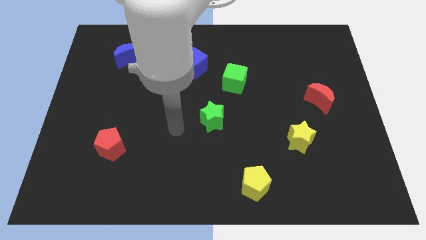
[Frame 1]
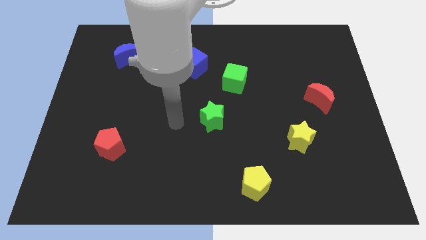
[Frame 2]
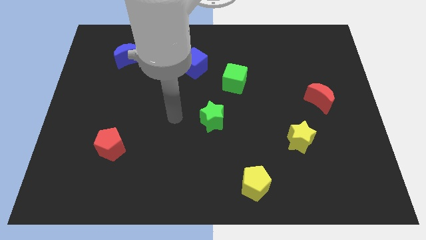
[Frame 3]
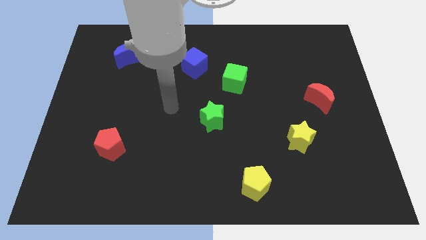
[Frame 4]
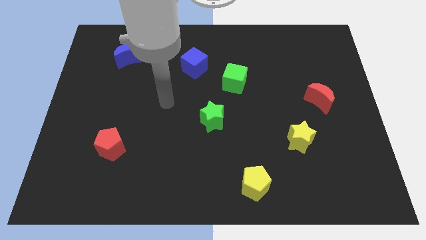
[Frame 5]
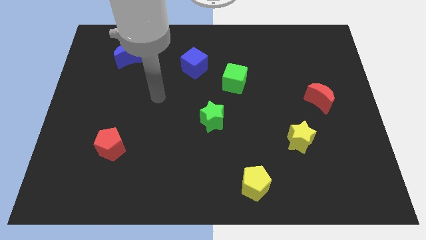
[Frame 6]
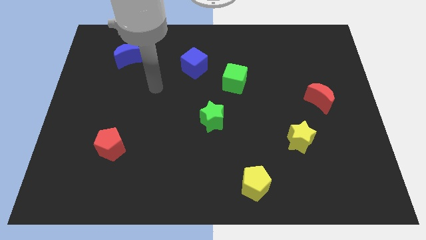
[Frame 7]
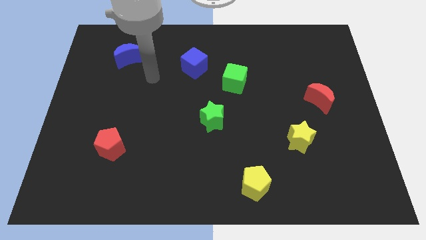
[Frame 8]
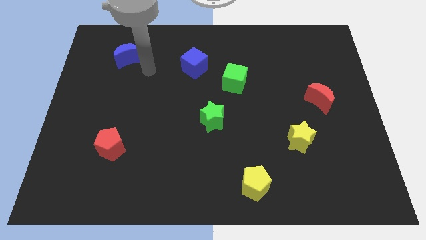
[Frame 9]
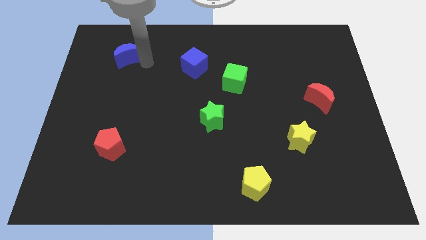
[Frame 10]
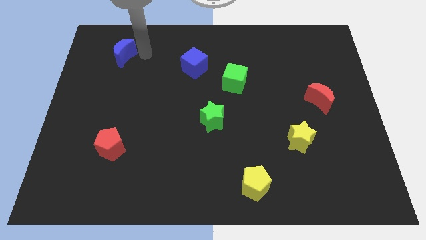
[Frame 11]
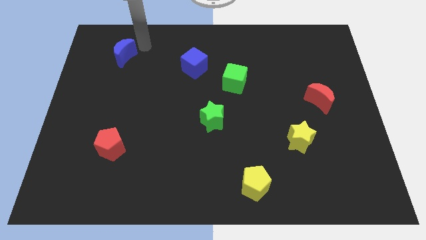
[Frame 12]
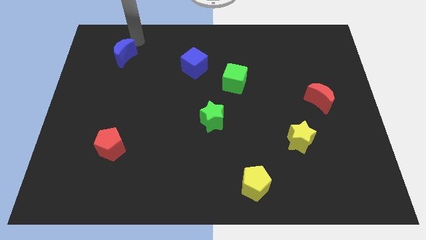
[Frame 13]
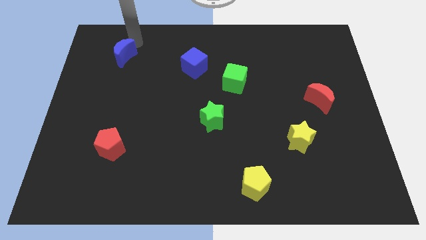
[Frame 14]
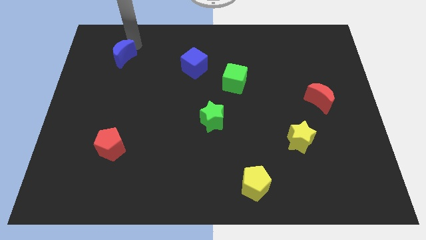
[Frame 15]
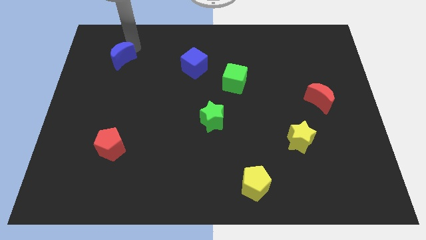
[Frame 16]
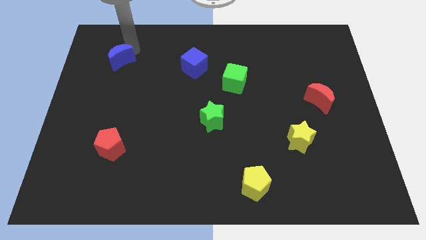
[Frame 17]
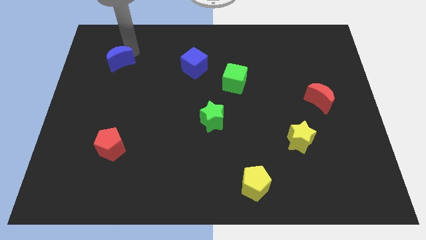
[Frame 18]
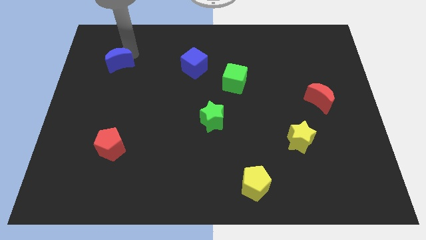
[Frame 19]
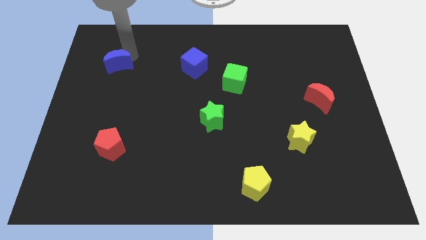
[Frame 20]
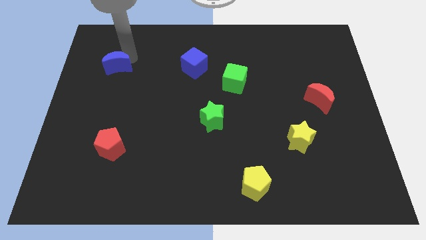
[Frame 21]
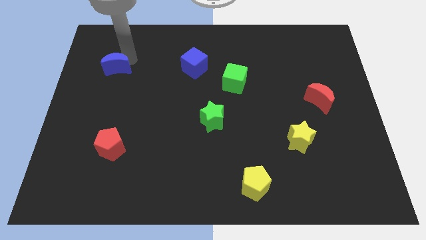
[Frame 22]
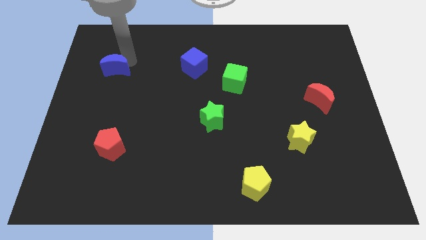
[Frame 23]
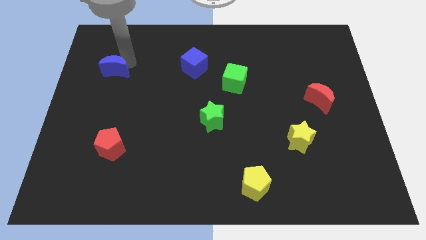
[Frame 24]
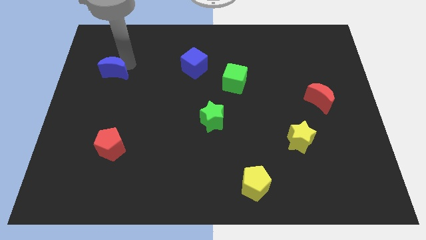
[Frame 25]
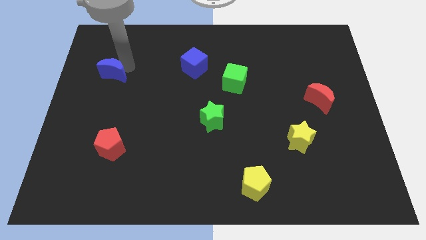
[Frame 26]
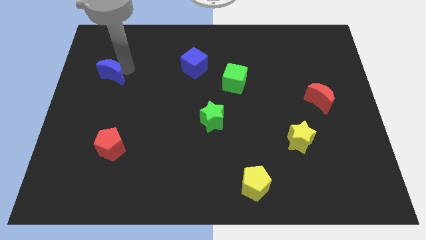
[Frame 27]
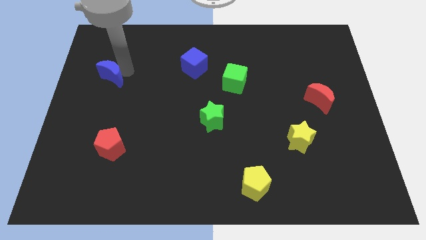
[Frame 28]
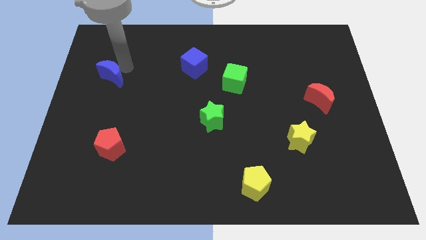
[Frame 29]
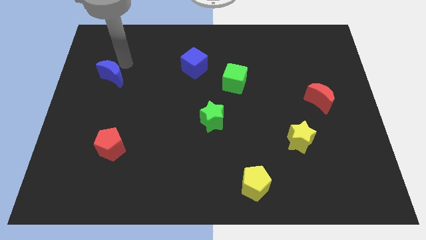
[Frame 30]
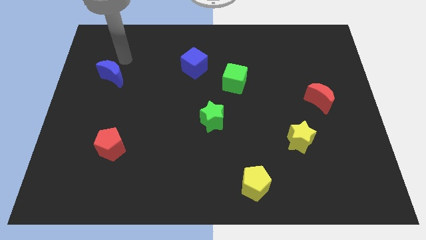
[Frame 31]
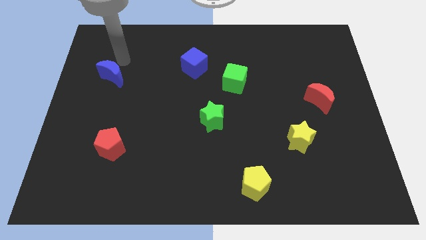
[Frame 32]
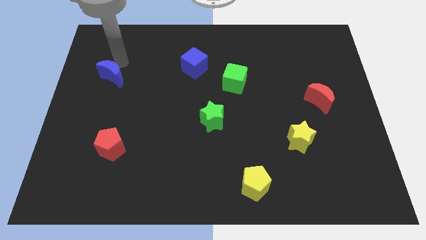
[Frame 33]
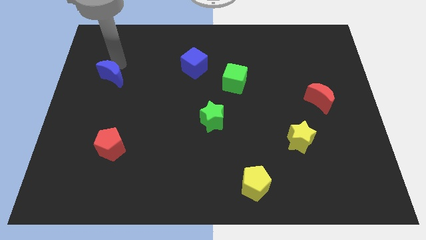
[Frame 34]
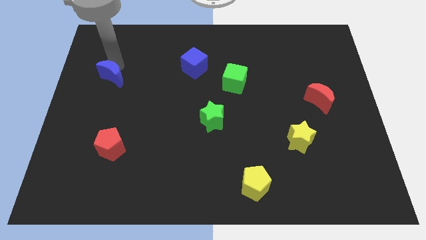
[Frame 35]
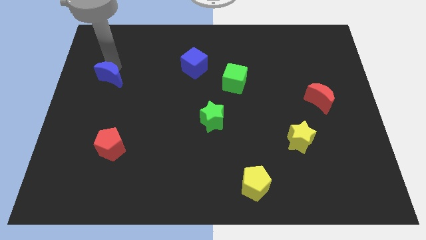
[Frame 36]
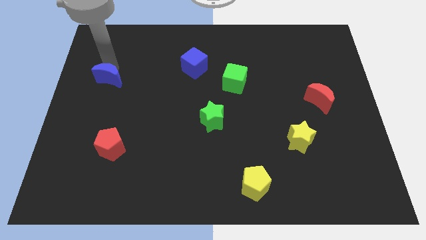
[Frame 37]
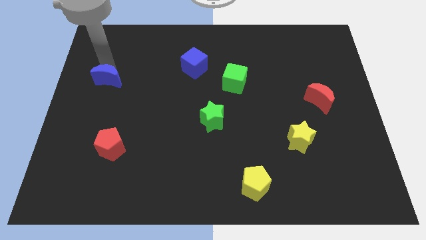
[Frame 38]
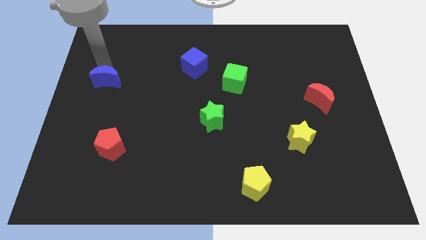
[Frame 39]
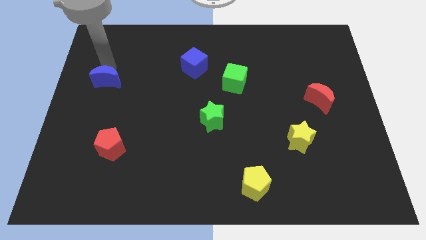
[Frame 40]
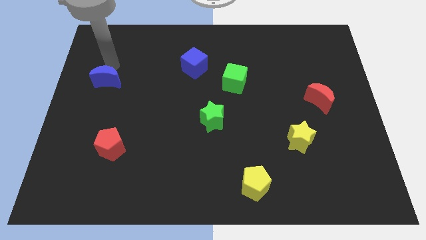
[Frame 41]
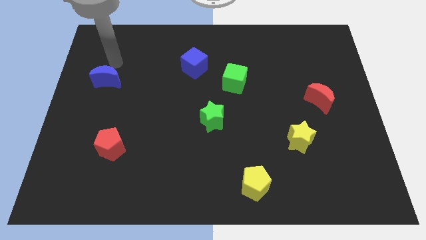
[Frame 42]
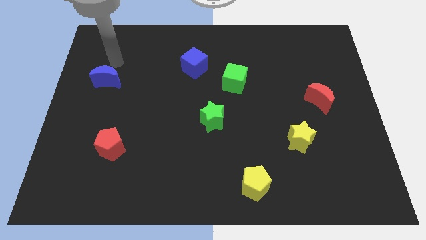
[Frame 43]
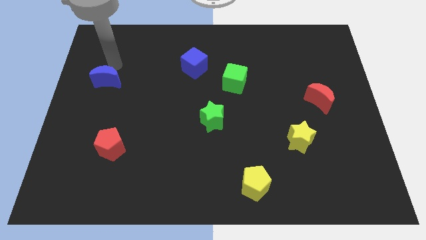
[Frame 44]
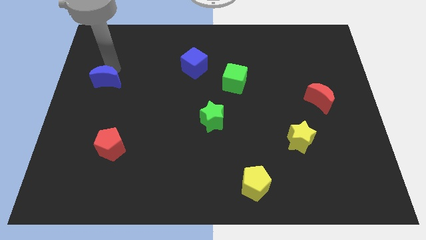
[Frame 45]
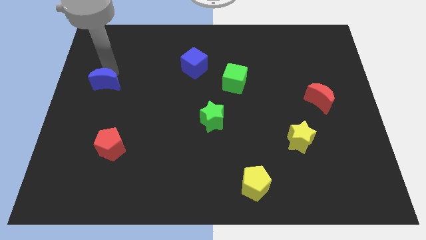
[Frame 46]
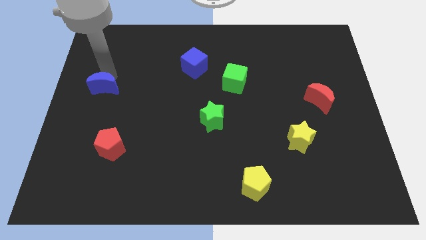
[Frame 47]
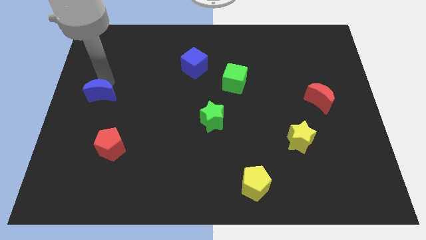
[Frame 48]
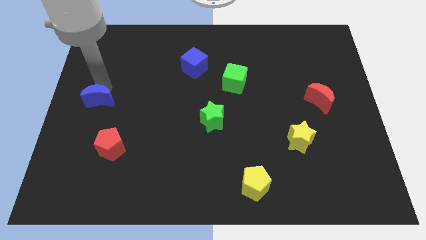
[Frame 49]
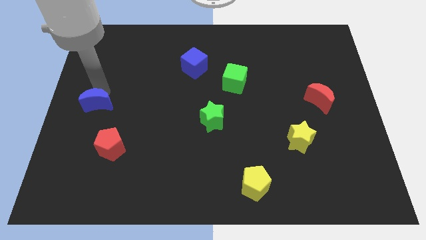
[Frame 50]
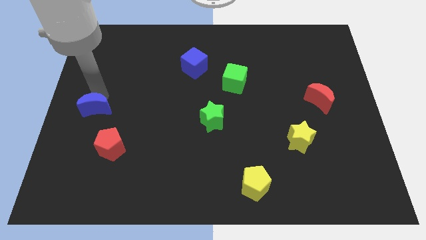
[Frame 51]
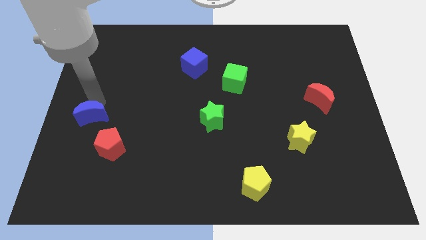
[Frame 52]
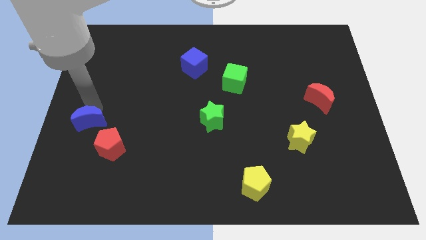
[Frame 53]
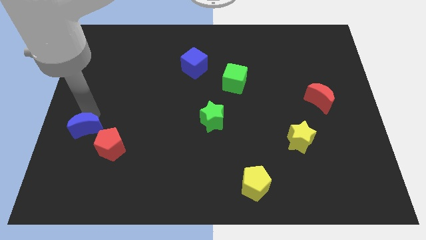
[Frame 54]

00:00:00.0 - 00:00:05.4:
slide the blue moon downwards

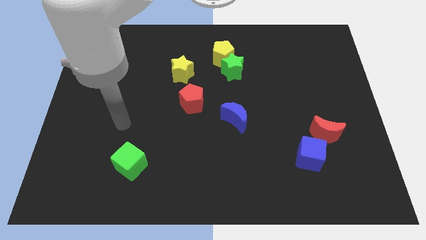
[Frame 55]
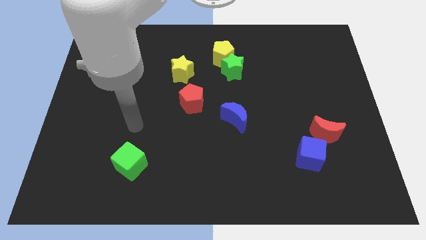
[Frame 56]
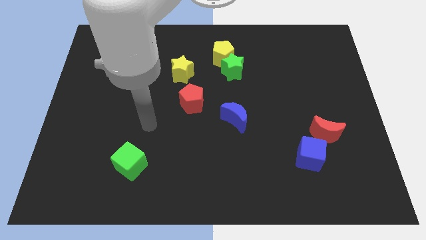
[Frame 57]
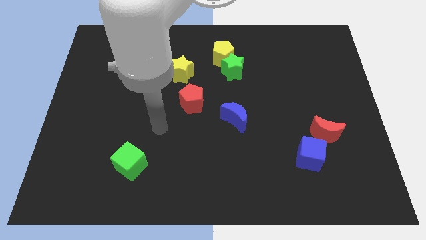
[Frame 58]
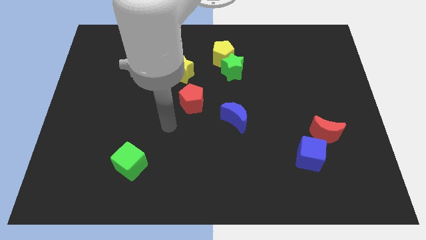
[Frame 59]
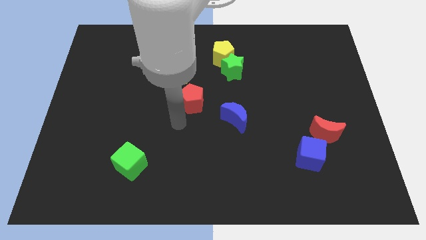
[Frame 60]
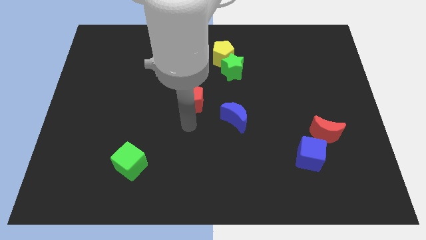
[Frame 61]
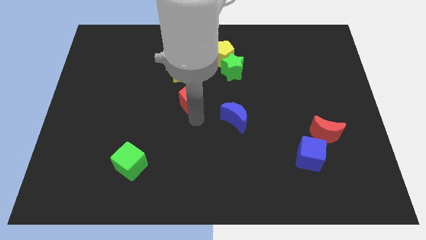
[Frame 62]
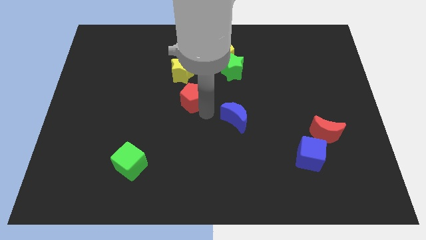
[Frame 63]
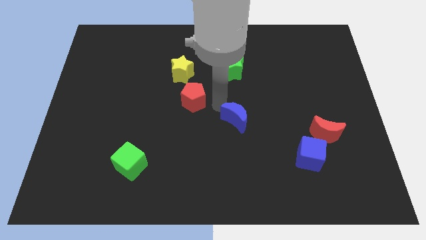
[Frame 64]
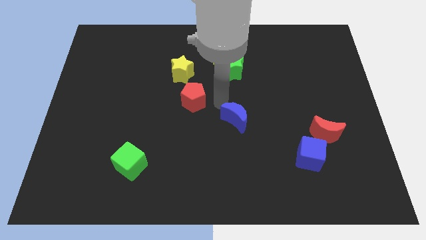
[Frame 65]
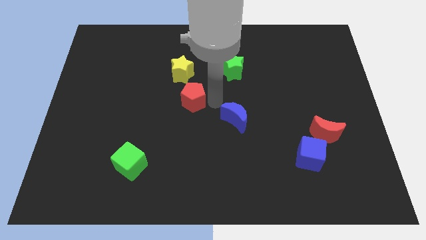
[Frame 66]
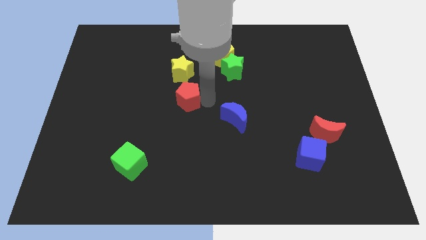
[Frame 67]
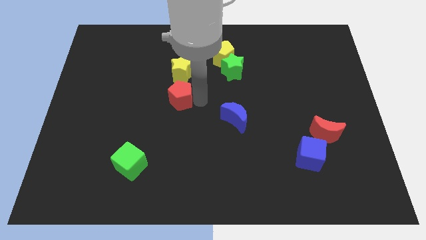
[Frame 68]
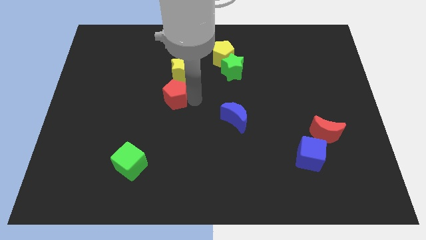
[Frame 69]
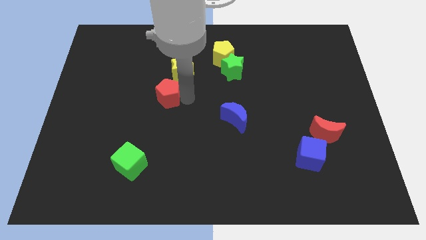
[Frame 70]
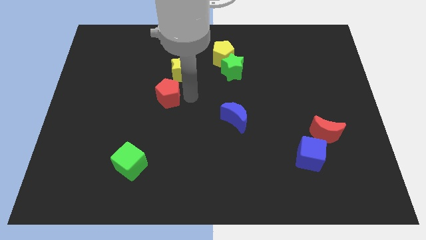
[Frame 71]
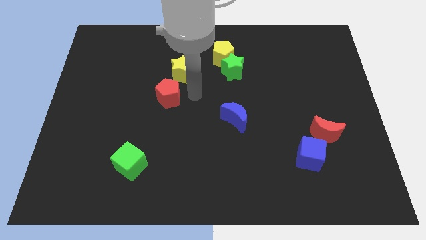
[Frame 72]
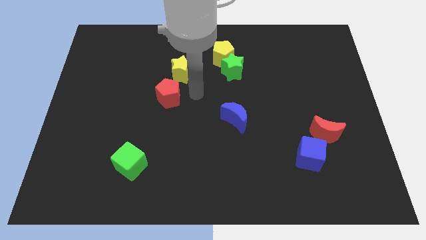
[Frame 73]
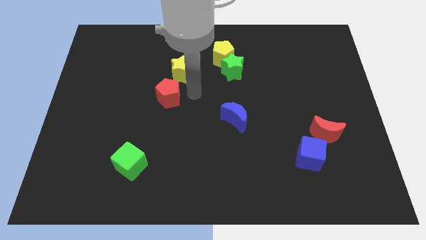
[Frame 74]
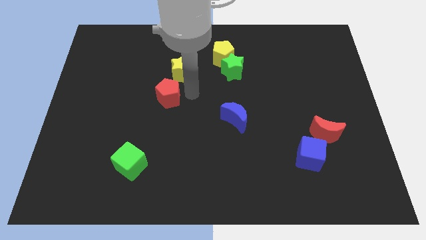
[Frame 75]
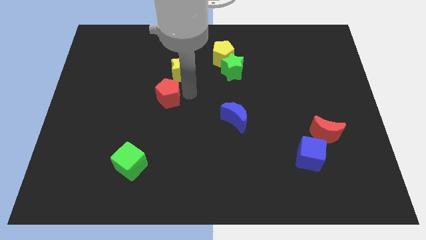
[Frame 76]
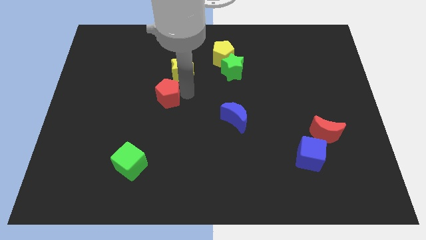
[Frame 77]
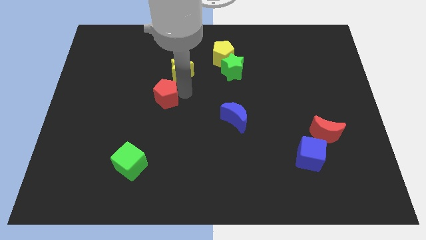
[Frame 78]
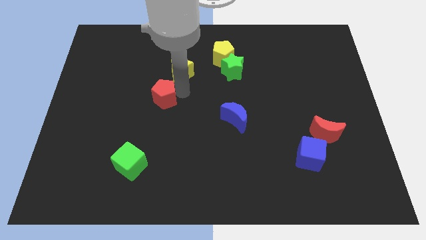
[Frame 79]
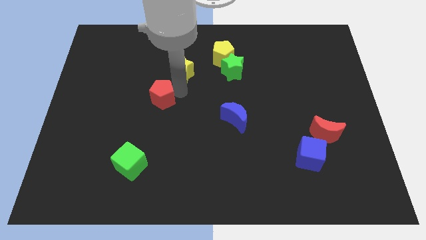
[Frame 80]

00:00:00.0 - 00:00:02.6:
slightly slide the red pentagon to the left
